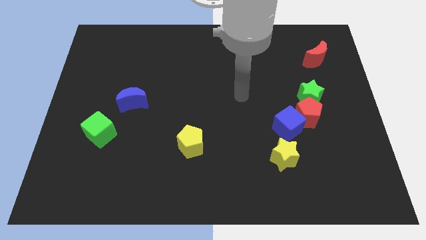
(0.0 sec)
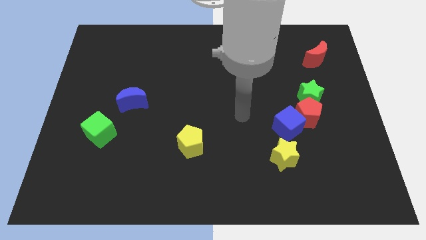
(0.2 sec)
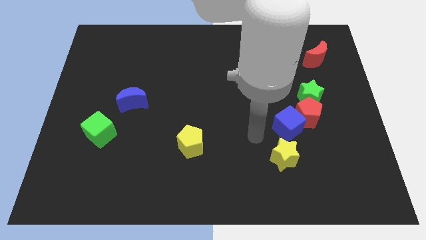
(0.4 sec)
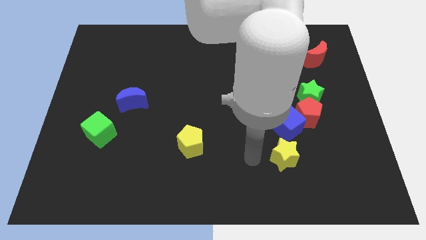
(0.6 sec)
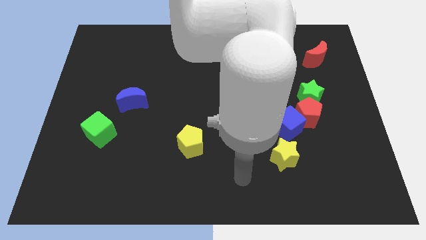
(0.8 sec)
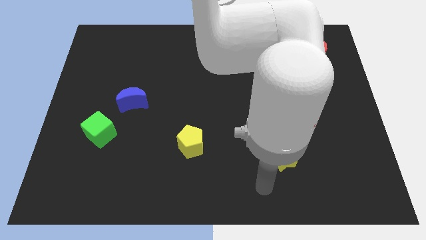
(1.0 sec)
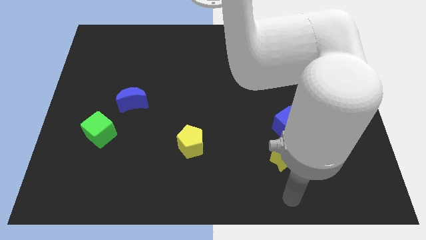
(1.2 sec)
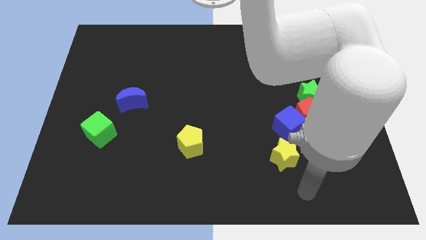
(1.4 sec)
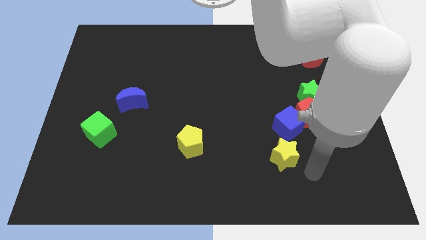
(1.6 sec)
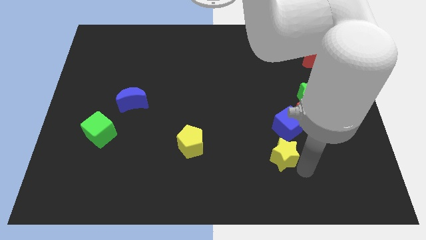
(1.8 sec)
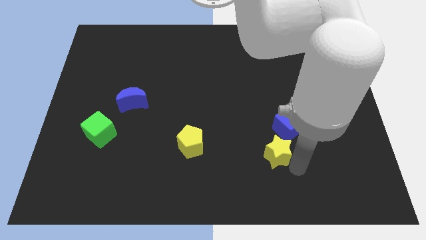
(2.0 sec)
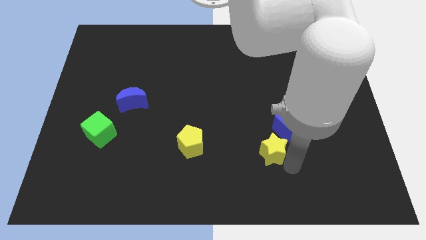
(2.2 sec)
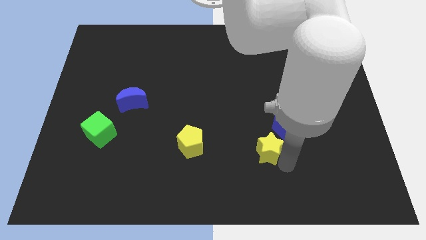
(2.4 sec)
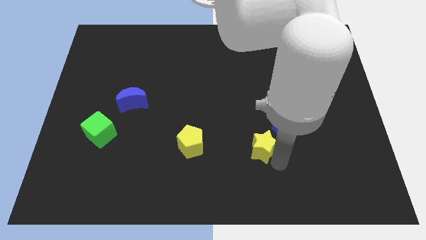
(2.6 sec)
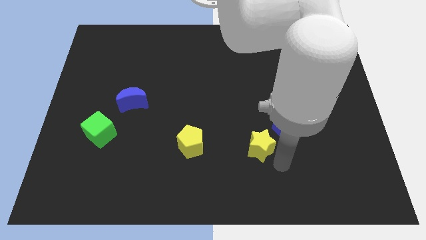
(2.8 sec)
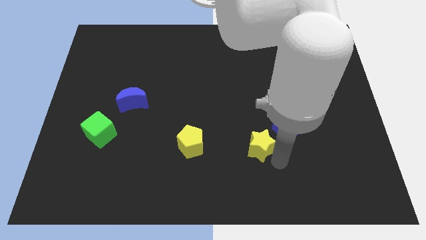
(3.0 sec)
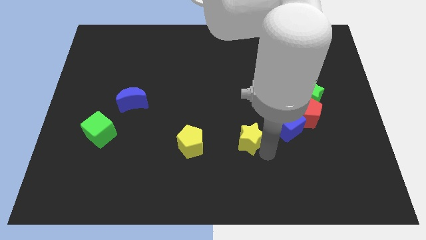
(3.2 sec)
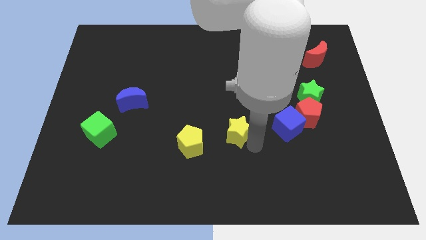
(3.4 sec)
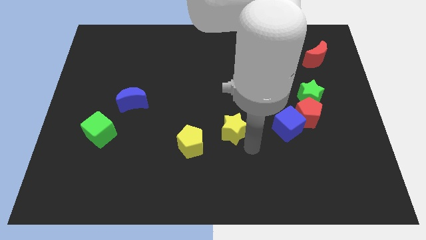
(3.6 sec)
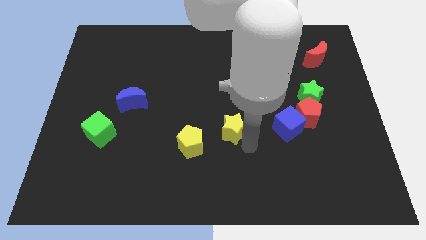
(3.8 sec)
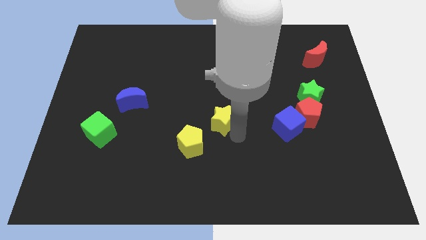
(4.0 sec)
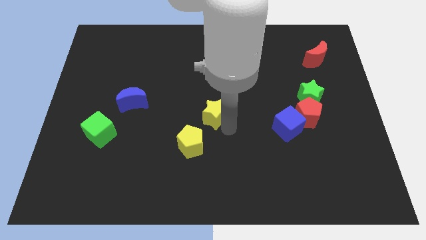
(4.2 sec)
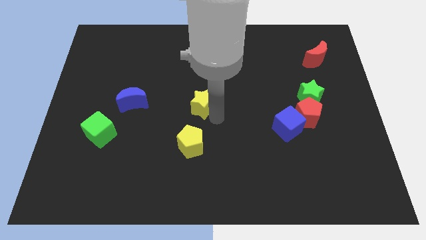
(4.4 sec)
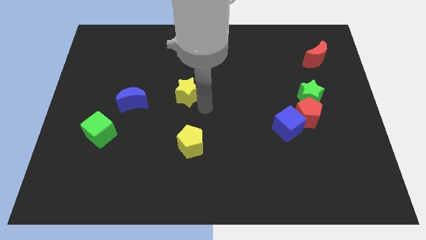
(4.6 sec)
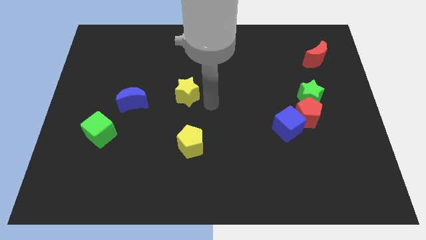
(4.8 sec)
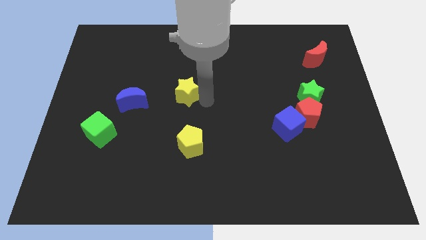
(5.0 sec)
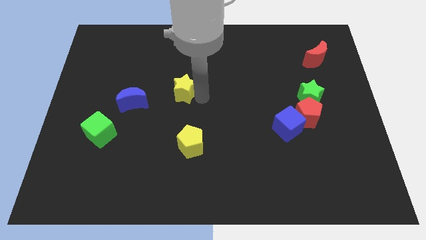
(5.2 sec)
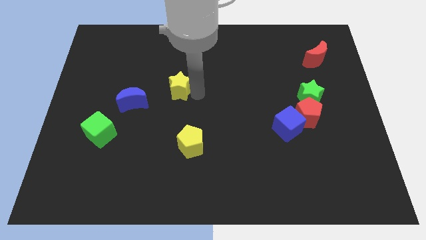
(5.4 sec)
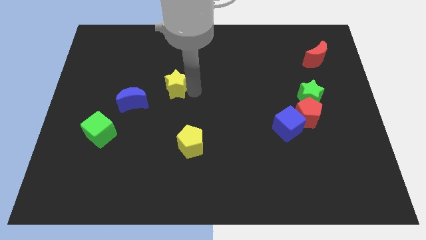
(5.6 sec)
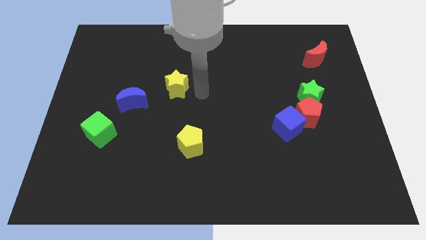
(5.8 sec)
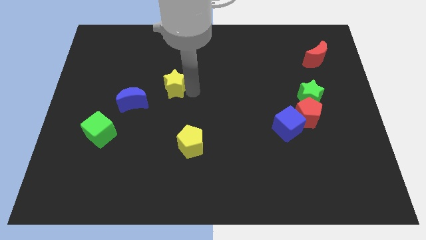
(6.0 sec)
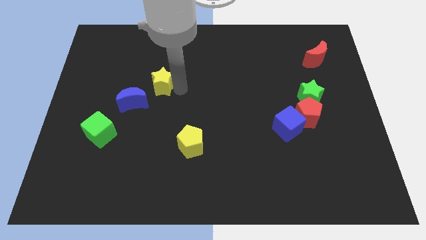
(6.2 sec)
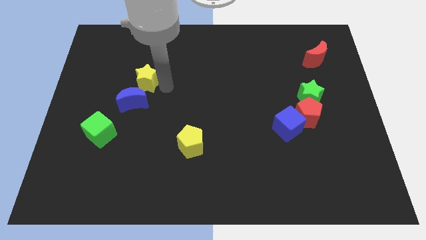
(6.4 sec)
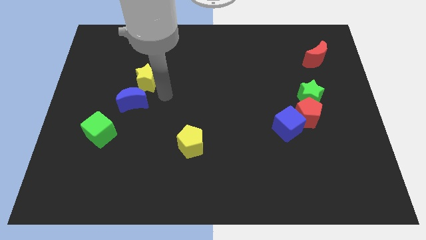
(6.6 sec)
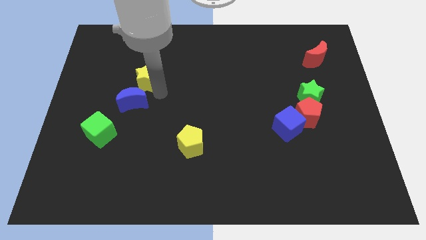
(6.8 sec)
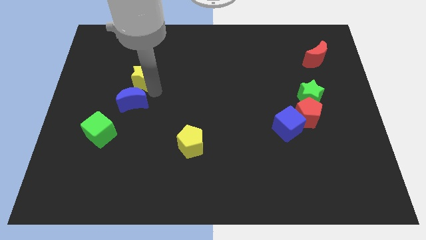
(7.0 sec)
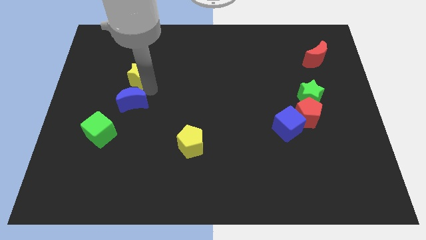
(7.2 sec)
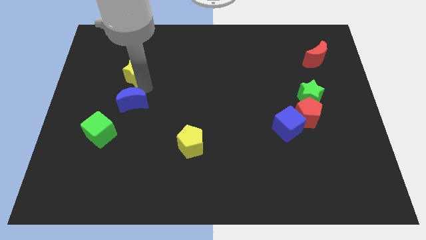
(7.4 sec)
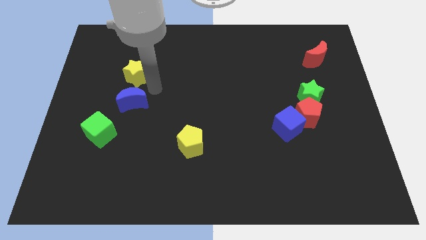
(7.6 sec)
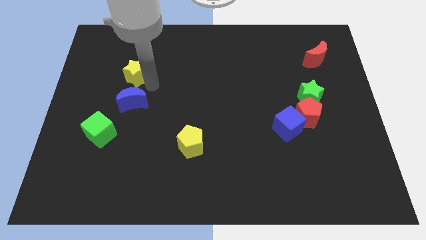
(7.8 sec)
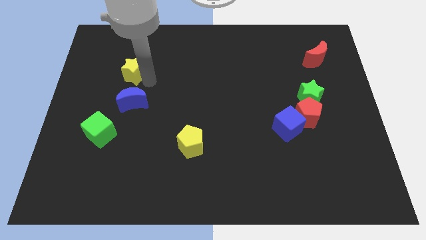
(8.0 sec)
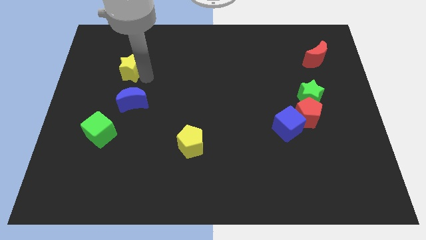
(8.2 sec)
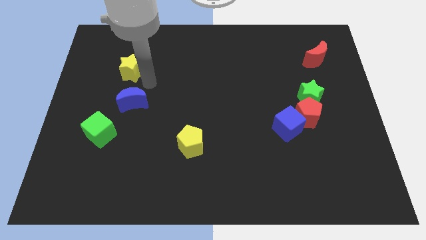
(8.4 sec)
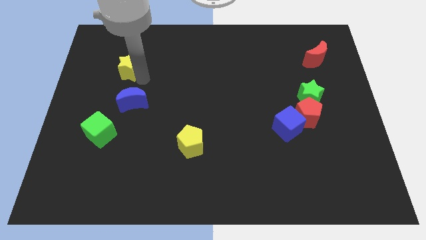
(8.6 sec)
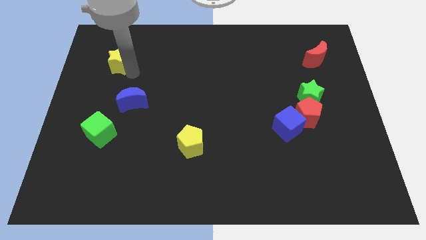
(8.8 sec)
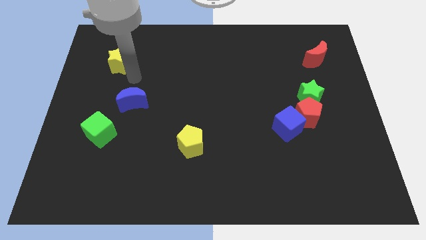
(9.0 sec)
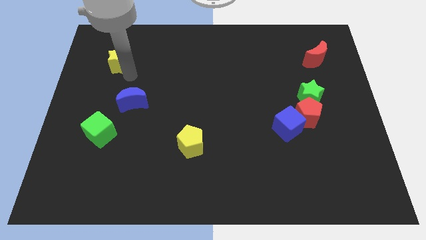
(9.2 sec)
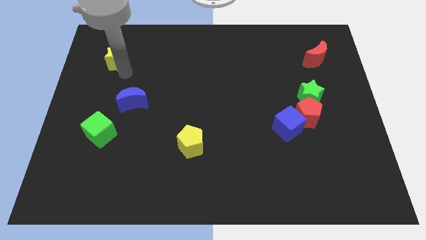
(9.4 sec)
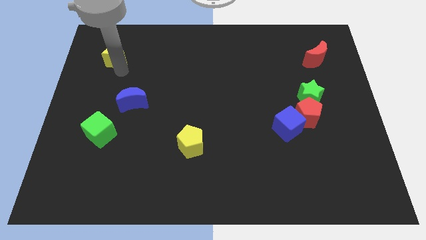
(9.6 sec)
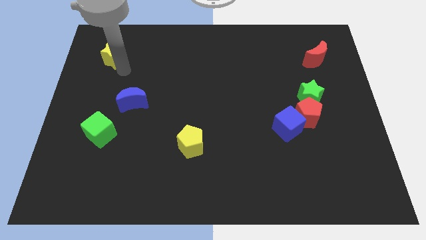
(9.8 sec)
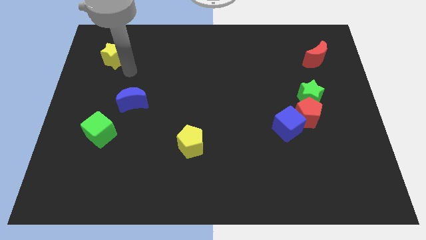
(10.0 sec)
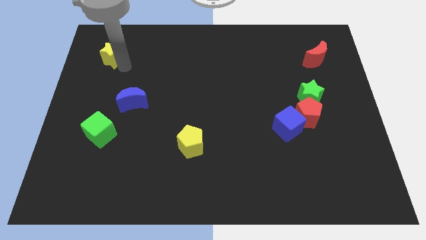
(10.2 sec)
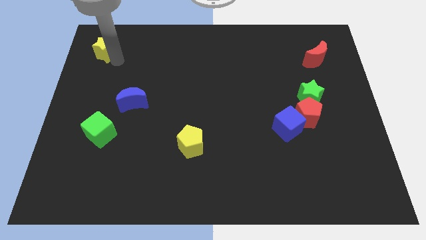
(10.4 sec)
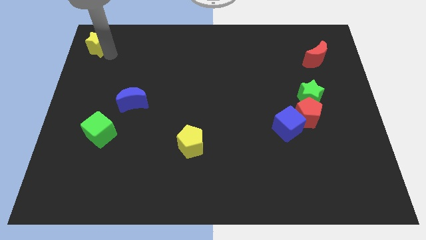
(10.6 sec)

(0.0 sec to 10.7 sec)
put the yellow star to the top left

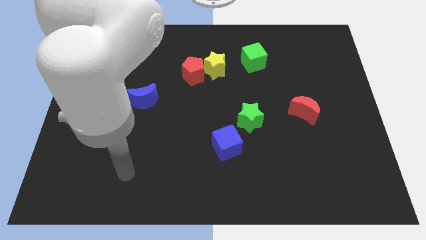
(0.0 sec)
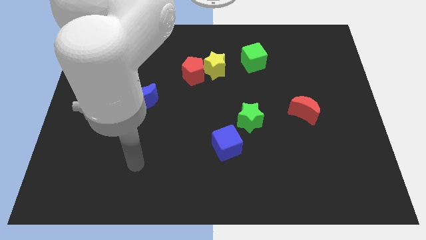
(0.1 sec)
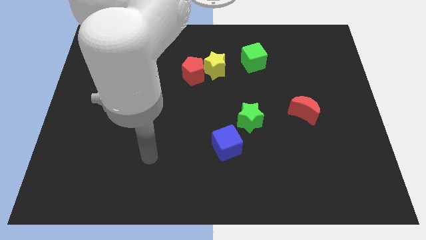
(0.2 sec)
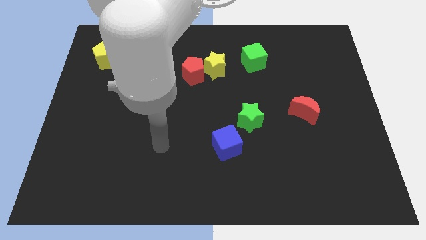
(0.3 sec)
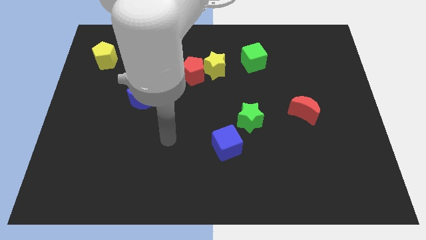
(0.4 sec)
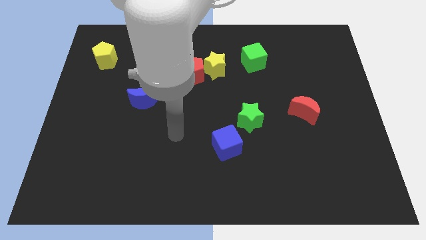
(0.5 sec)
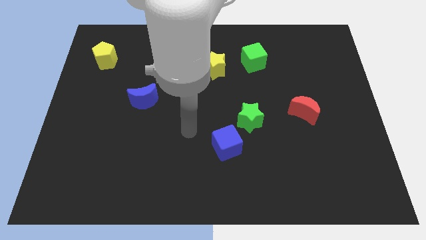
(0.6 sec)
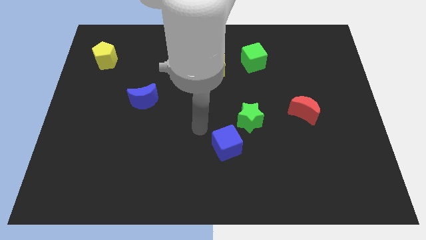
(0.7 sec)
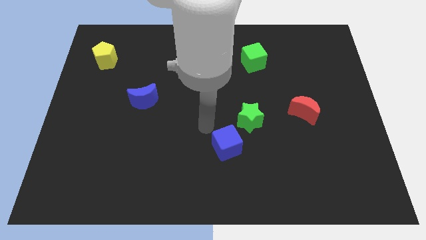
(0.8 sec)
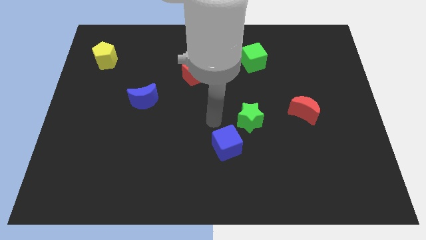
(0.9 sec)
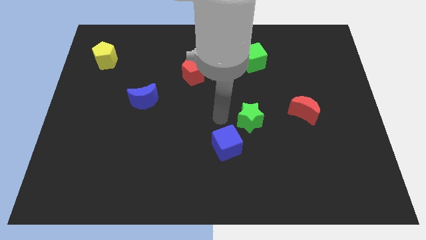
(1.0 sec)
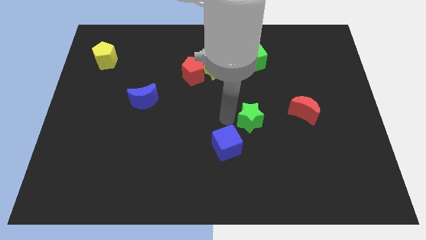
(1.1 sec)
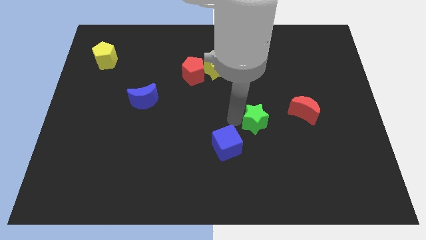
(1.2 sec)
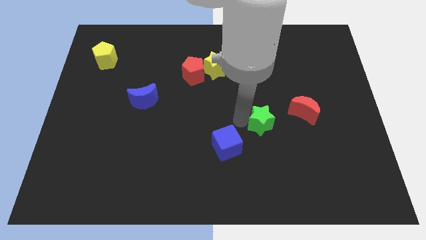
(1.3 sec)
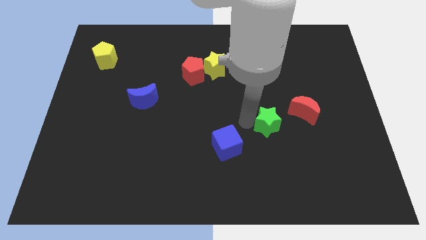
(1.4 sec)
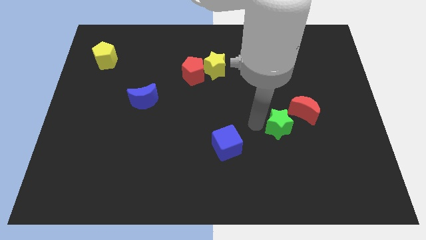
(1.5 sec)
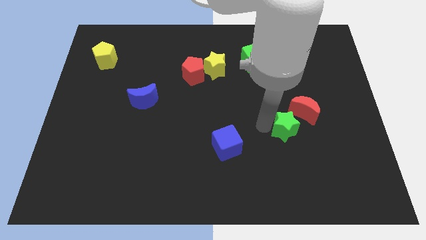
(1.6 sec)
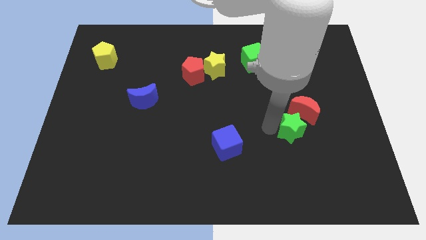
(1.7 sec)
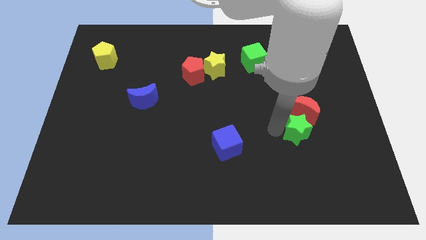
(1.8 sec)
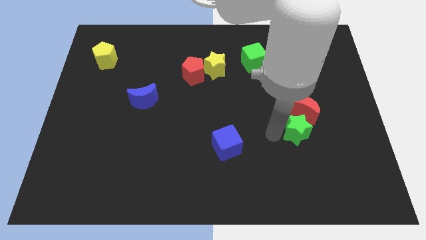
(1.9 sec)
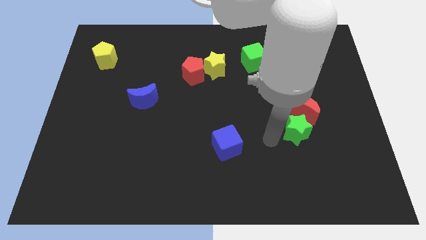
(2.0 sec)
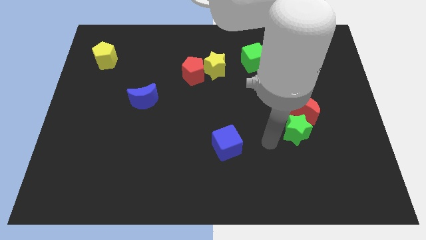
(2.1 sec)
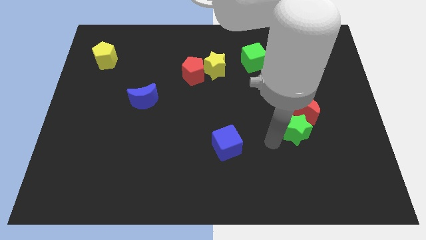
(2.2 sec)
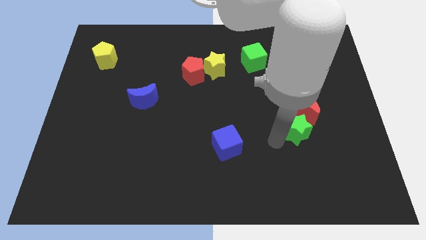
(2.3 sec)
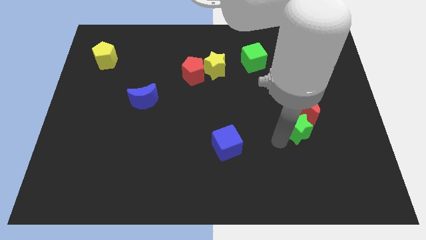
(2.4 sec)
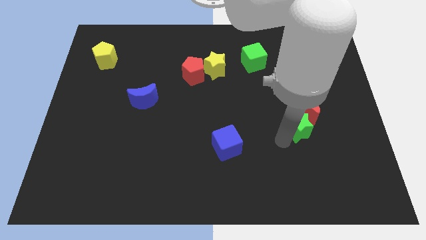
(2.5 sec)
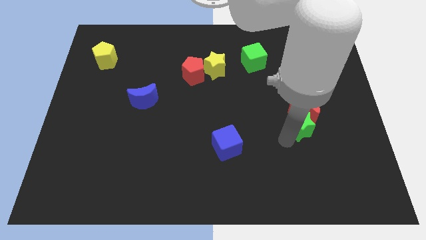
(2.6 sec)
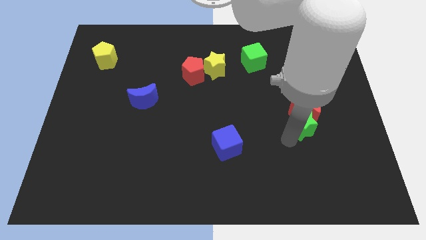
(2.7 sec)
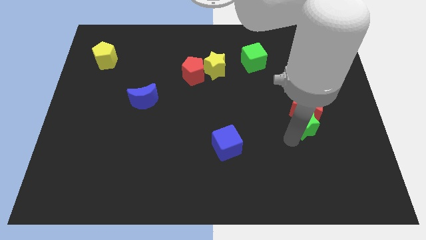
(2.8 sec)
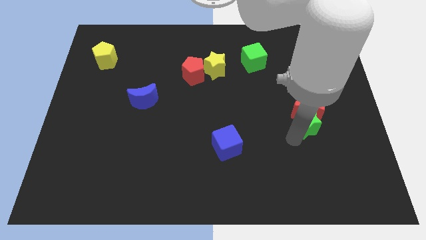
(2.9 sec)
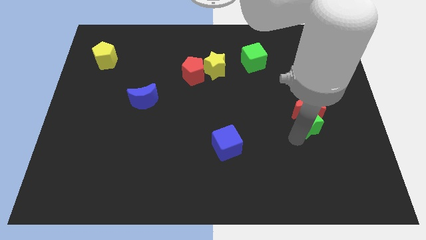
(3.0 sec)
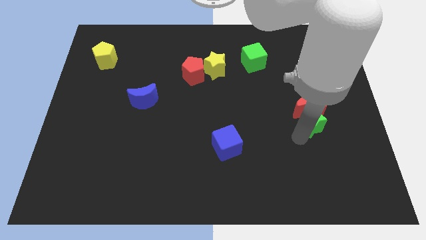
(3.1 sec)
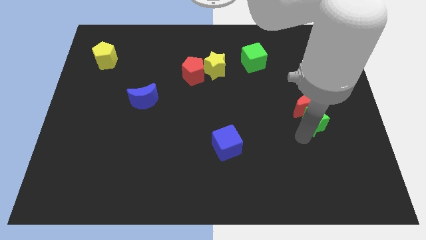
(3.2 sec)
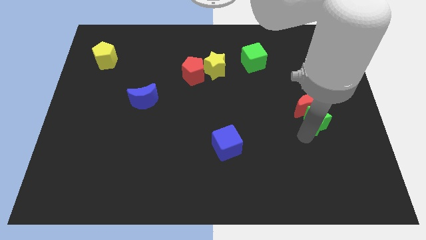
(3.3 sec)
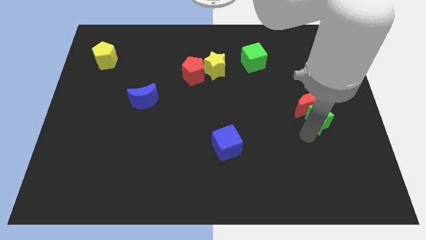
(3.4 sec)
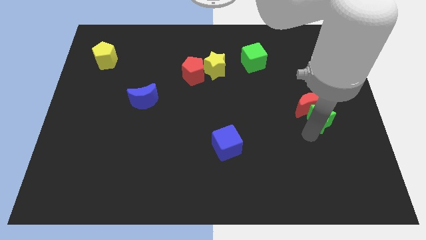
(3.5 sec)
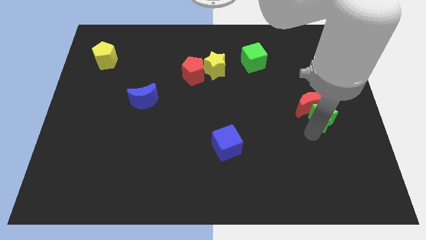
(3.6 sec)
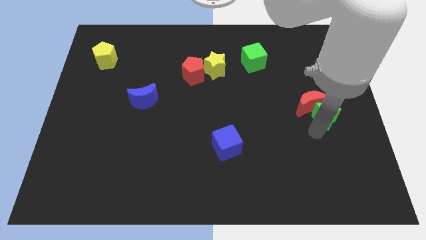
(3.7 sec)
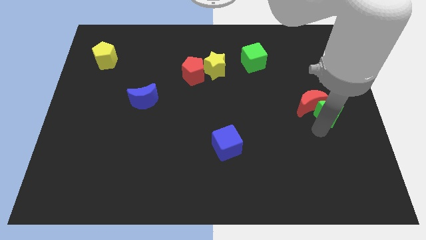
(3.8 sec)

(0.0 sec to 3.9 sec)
move the green star to the right side of the board
